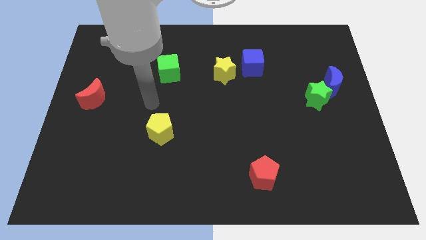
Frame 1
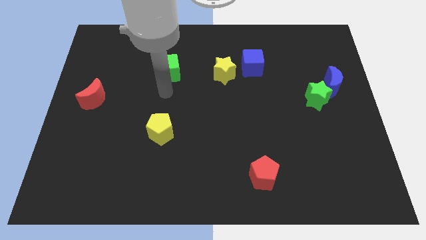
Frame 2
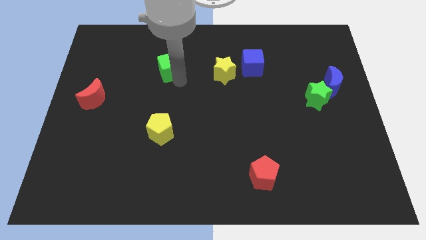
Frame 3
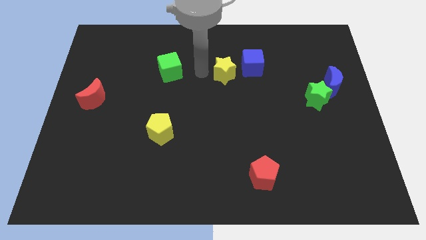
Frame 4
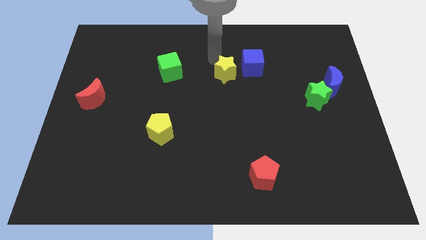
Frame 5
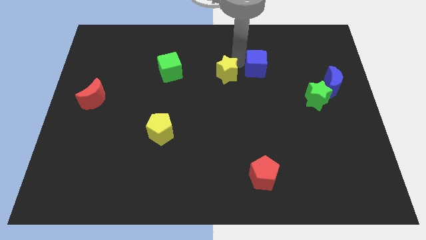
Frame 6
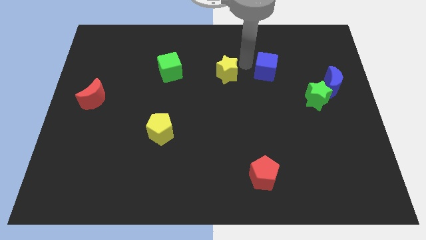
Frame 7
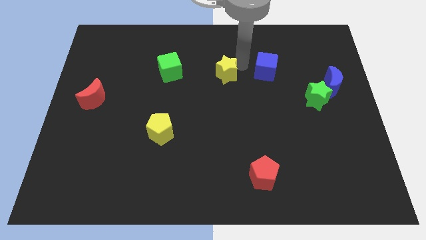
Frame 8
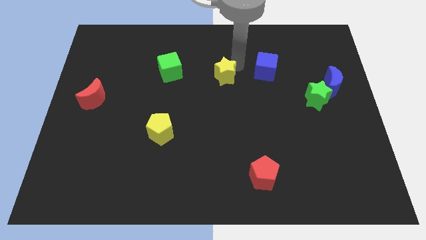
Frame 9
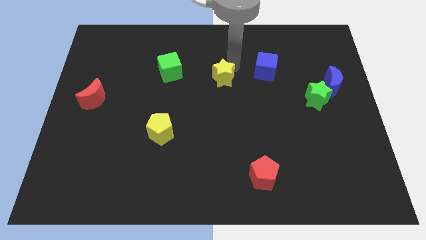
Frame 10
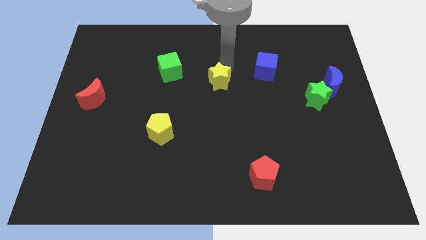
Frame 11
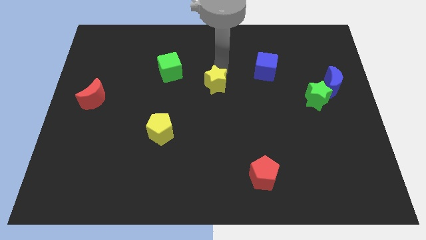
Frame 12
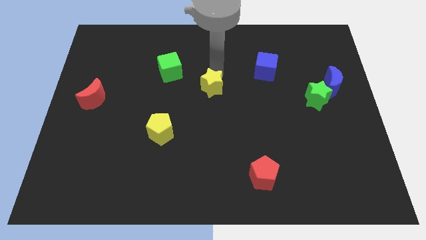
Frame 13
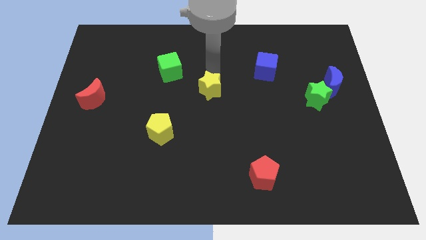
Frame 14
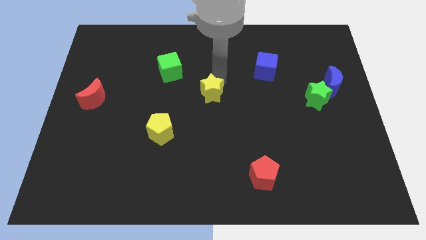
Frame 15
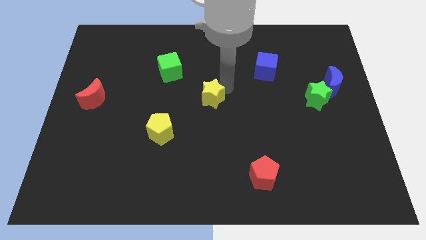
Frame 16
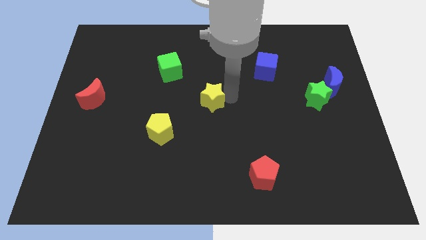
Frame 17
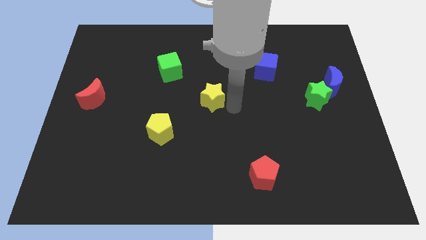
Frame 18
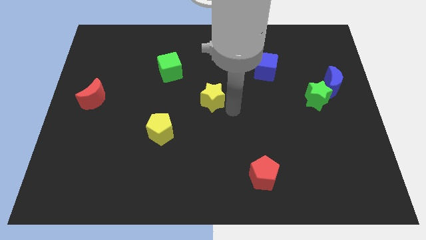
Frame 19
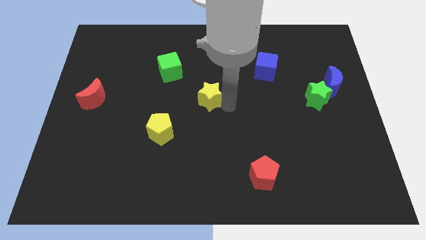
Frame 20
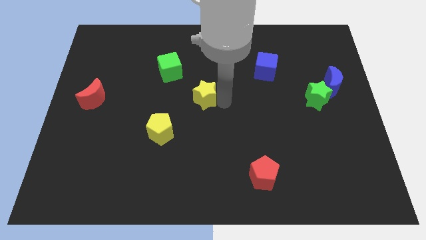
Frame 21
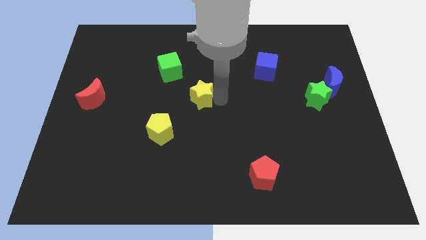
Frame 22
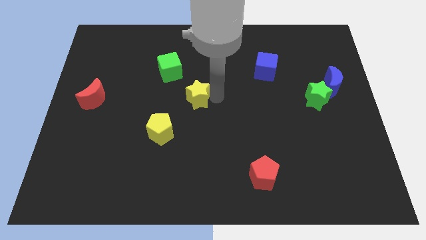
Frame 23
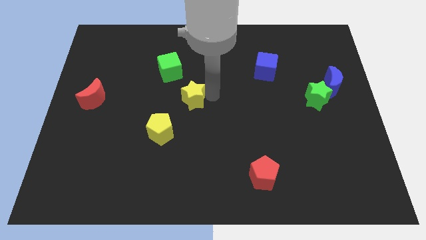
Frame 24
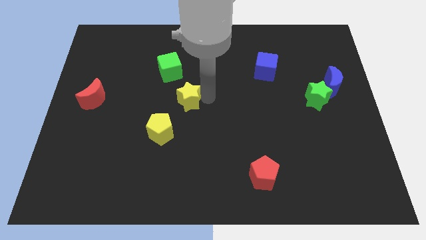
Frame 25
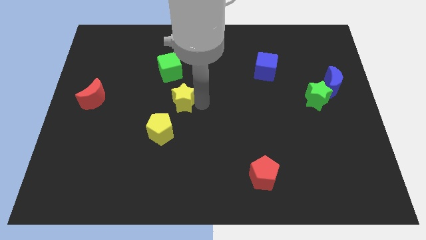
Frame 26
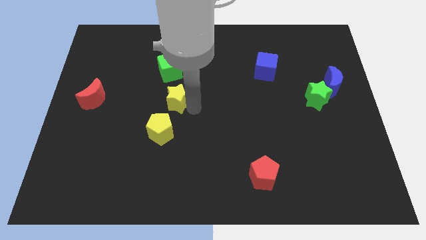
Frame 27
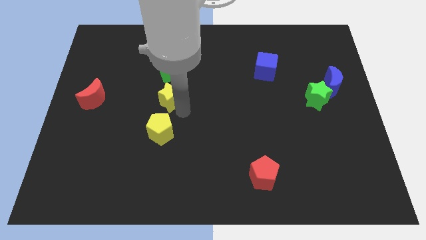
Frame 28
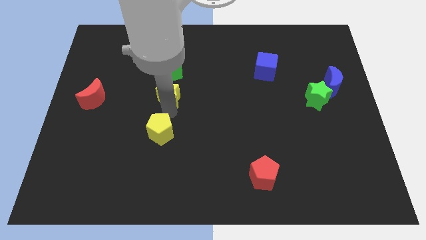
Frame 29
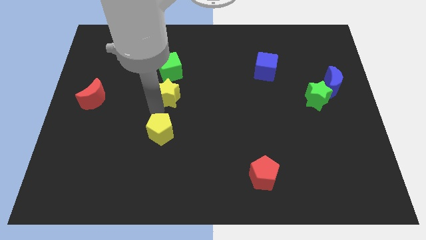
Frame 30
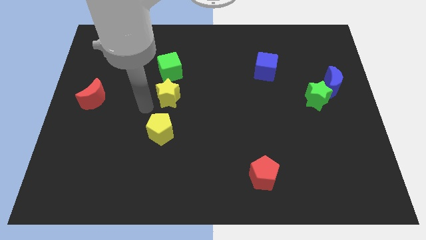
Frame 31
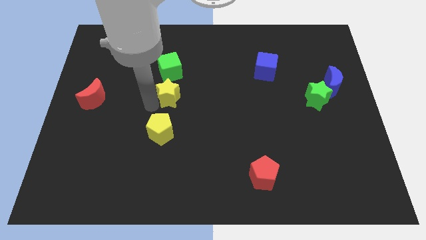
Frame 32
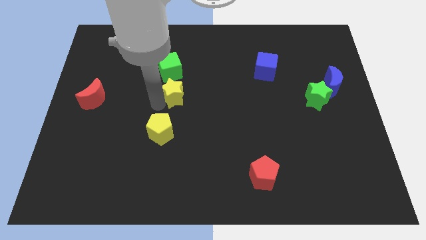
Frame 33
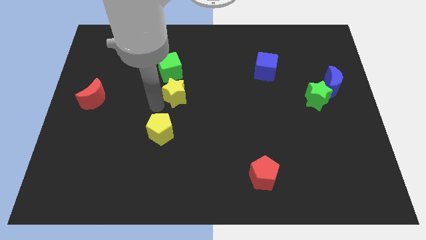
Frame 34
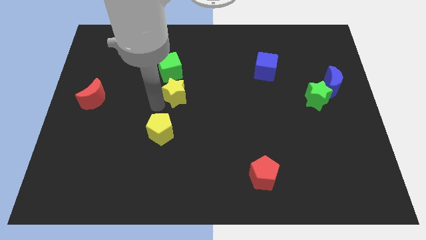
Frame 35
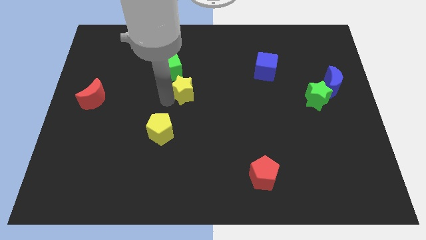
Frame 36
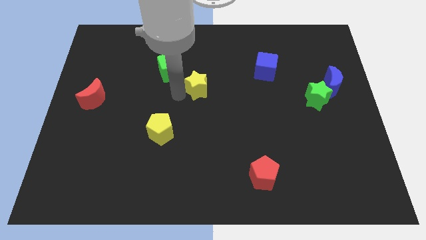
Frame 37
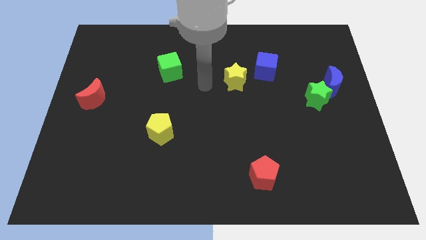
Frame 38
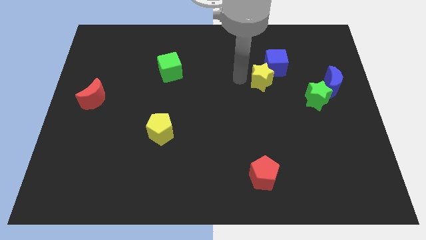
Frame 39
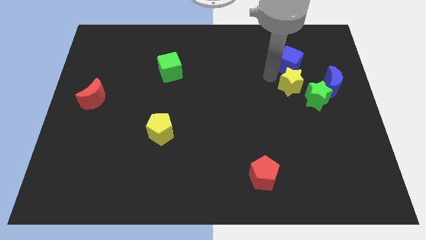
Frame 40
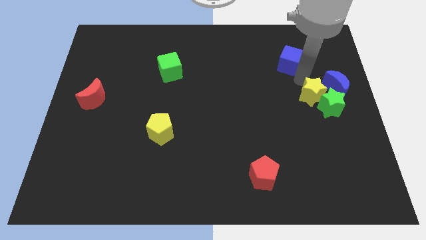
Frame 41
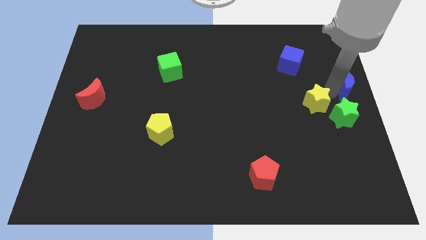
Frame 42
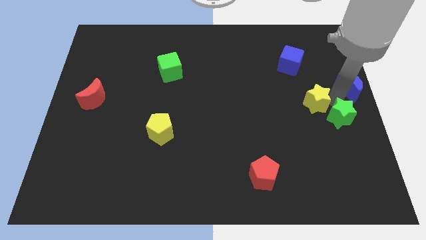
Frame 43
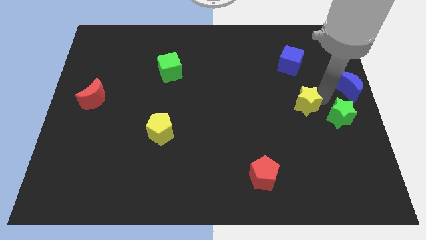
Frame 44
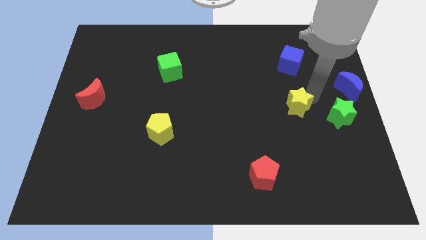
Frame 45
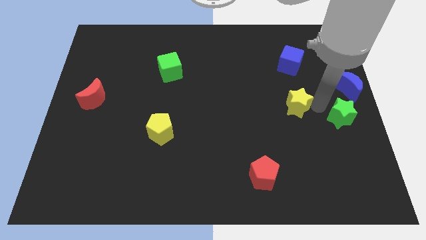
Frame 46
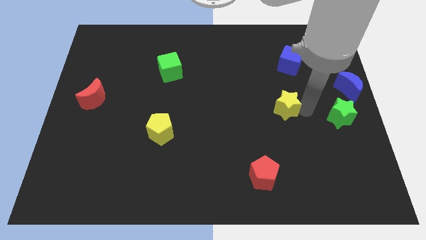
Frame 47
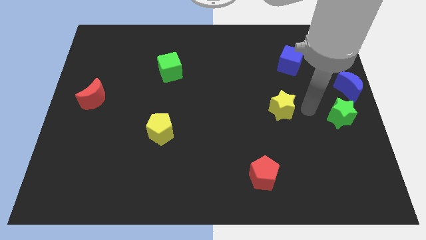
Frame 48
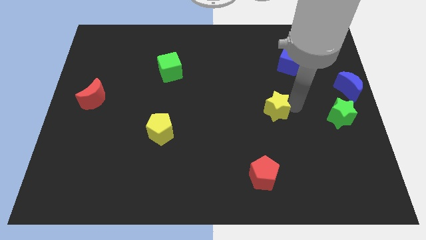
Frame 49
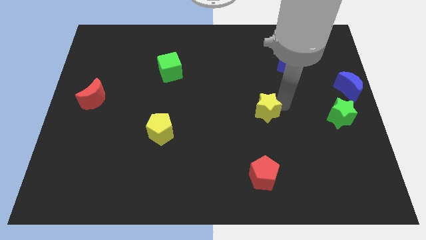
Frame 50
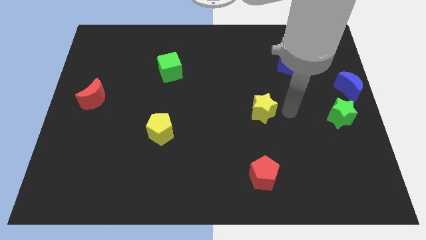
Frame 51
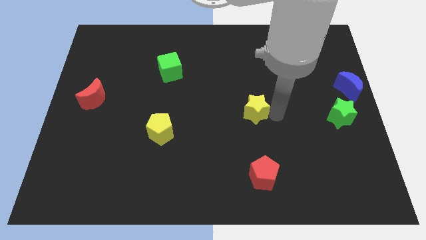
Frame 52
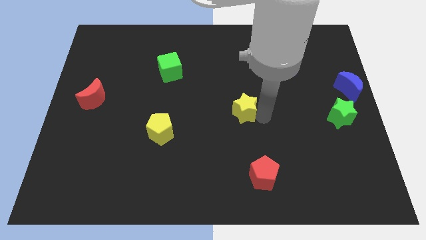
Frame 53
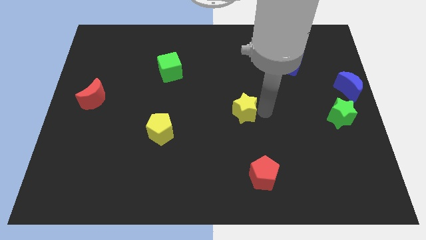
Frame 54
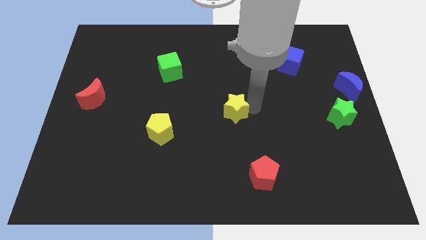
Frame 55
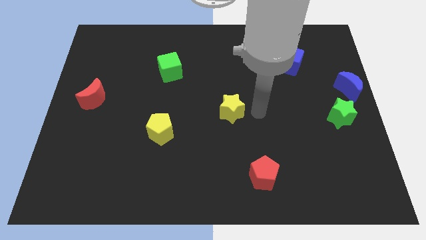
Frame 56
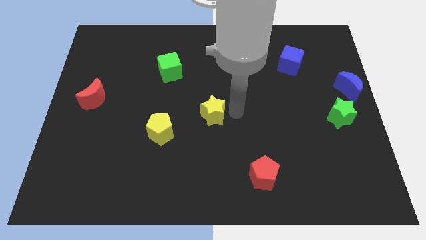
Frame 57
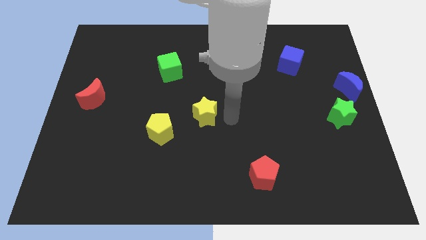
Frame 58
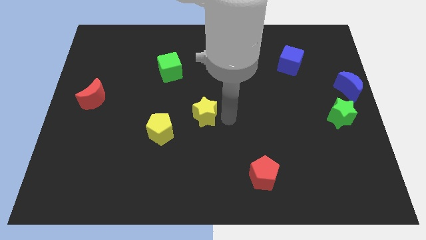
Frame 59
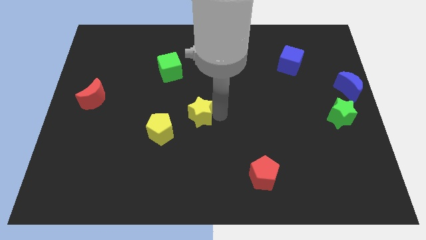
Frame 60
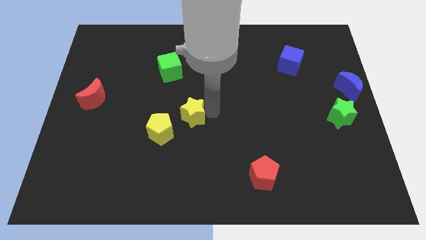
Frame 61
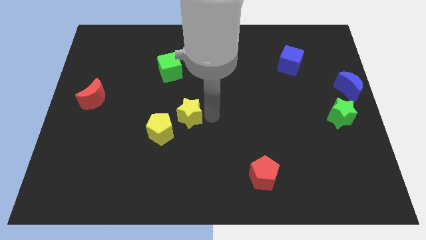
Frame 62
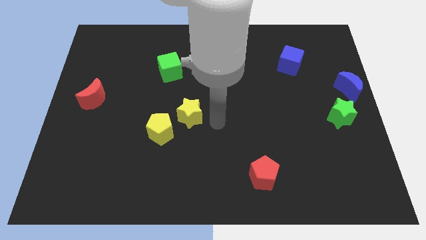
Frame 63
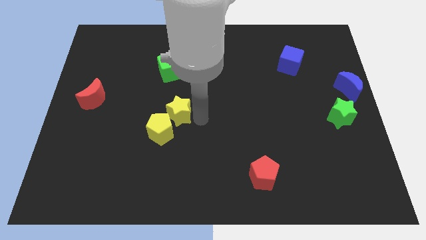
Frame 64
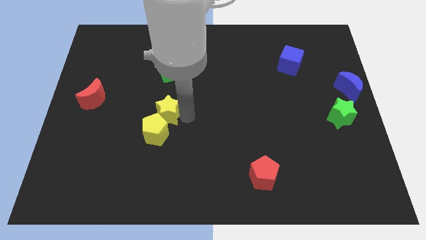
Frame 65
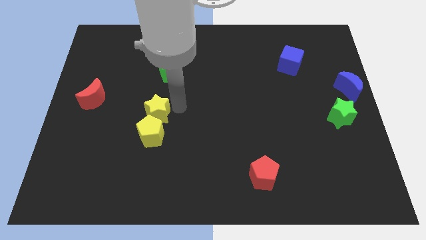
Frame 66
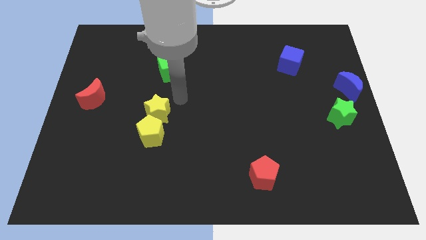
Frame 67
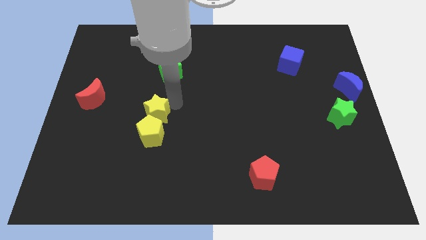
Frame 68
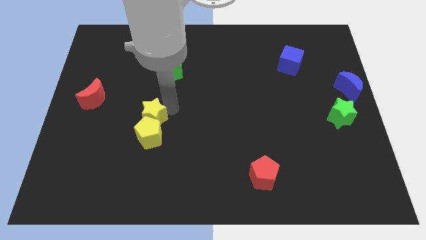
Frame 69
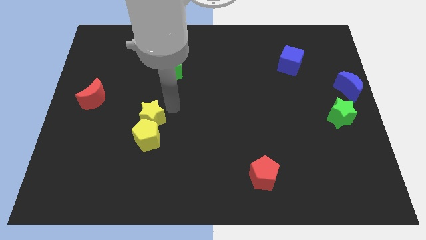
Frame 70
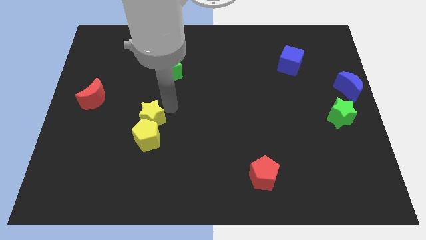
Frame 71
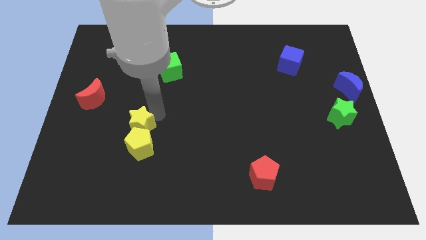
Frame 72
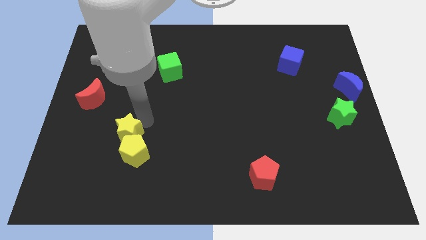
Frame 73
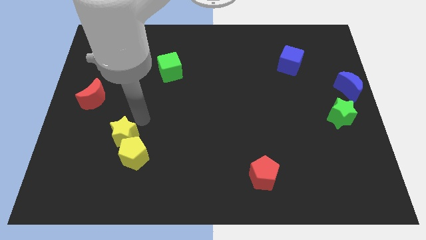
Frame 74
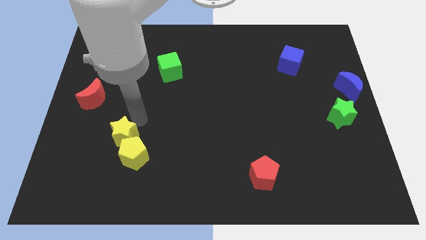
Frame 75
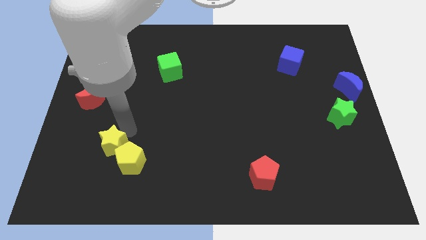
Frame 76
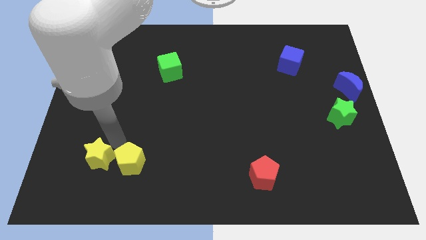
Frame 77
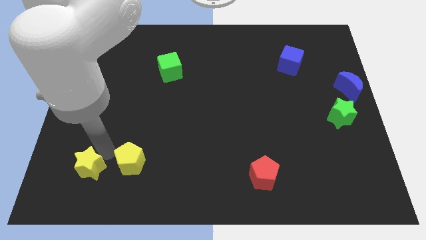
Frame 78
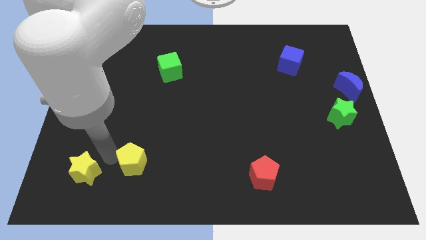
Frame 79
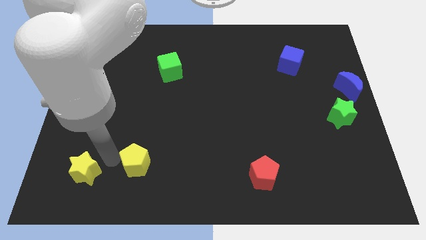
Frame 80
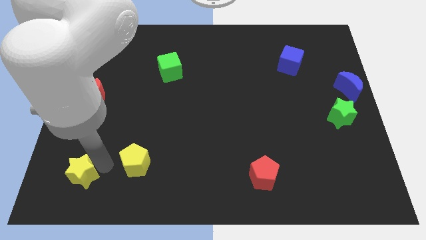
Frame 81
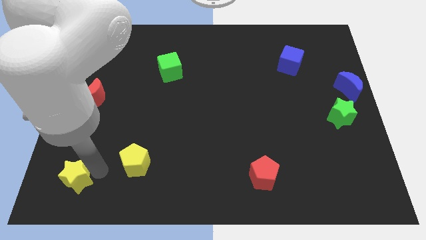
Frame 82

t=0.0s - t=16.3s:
move the yellow star to the bottom left of the board
